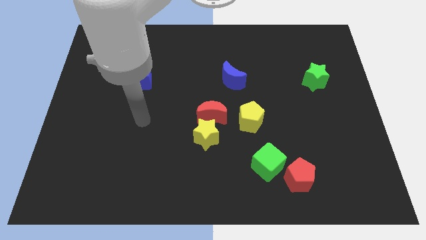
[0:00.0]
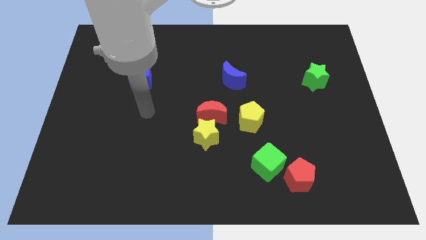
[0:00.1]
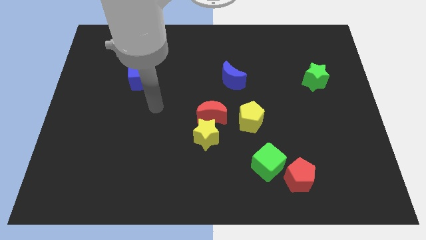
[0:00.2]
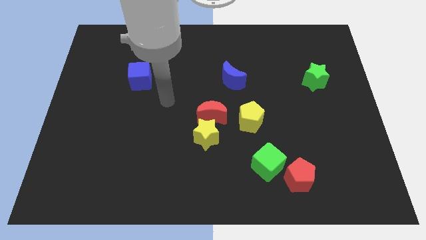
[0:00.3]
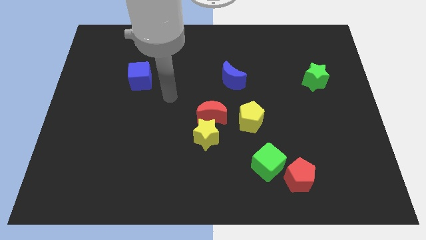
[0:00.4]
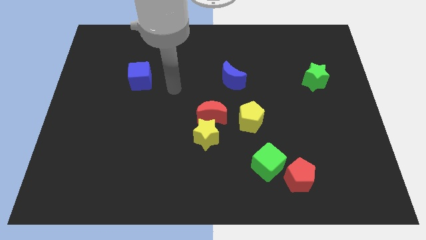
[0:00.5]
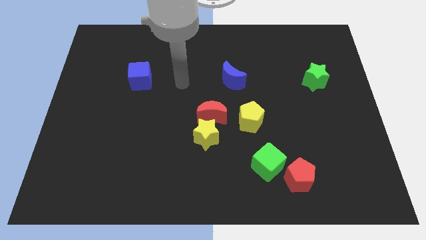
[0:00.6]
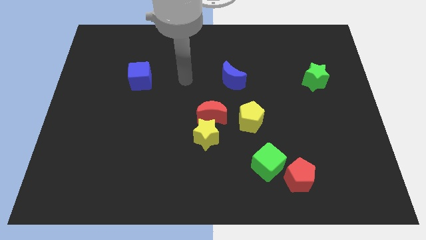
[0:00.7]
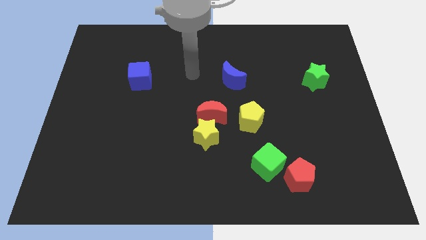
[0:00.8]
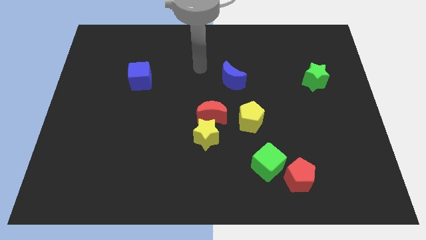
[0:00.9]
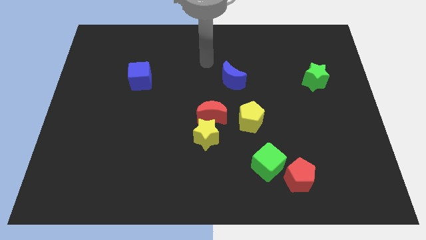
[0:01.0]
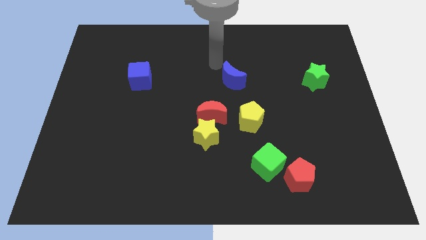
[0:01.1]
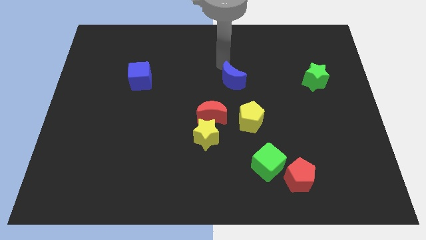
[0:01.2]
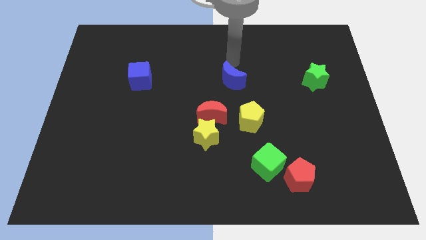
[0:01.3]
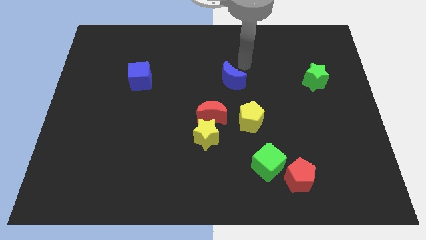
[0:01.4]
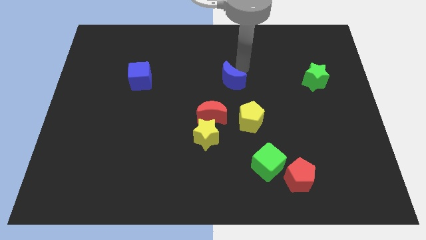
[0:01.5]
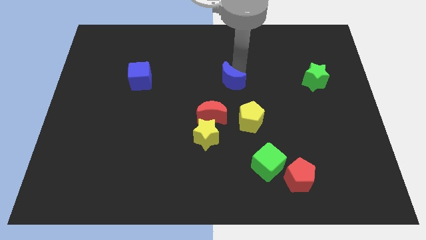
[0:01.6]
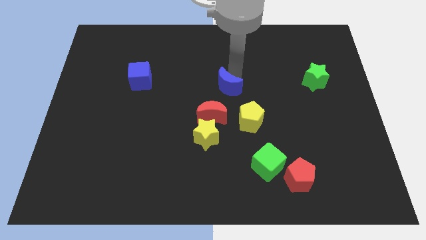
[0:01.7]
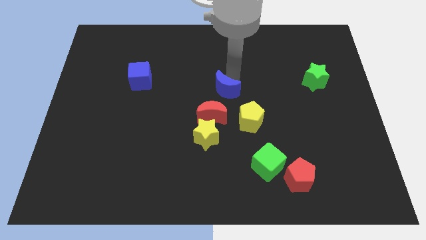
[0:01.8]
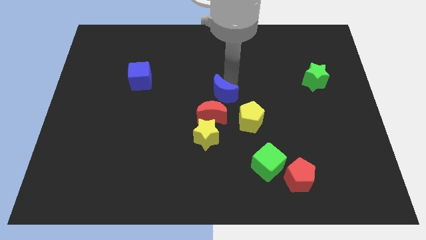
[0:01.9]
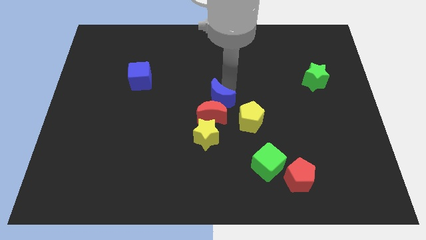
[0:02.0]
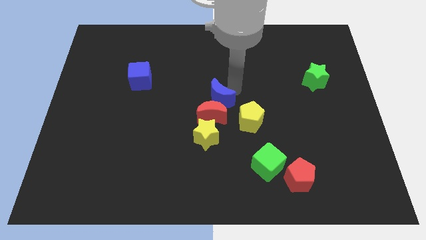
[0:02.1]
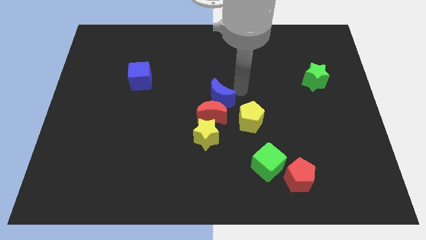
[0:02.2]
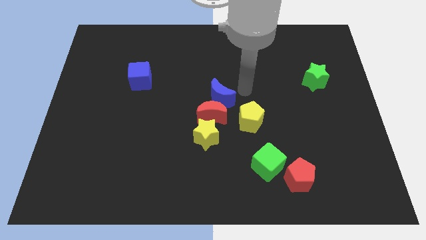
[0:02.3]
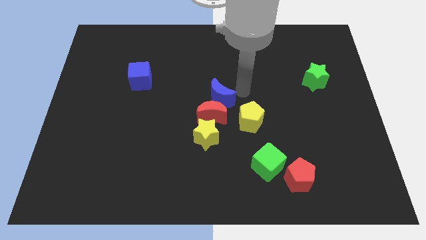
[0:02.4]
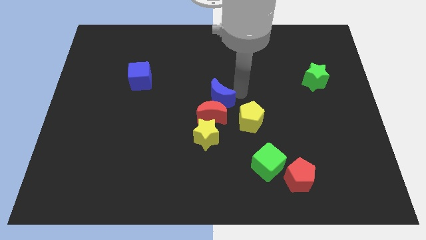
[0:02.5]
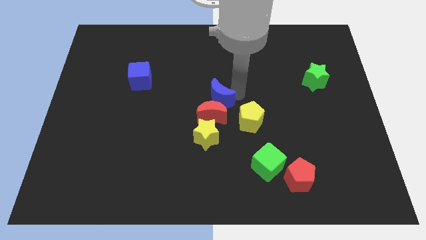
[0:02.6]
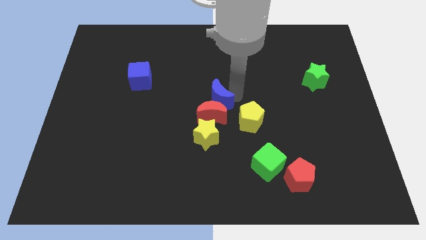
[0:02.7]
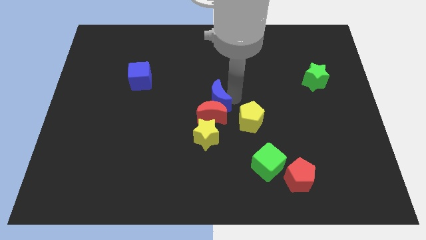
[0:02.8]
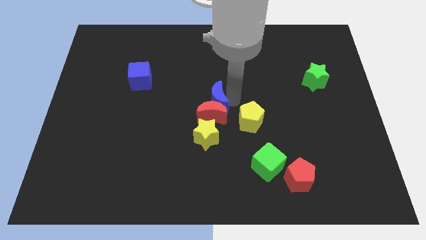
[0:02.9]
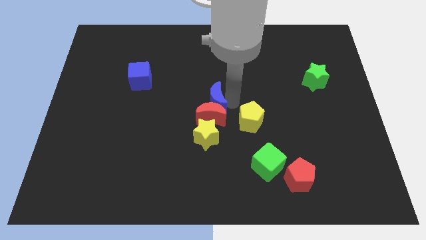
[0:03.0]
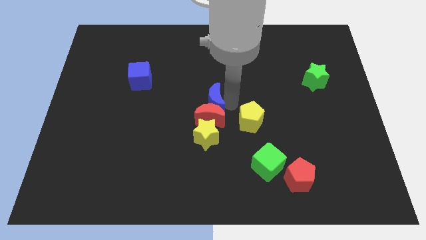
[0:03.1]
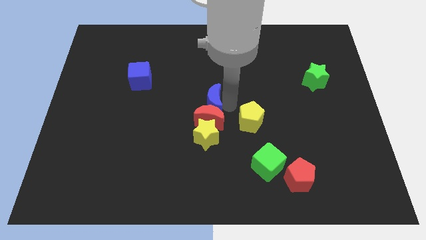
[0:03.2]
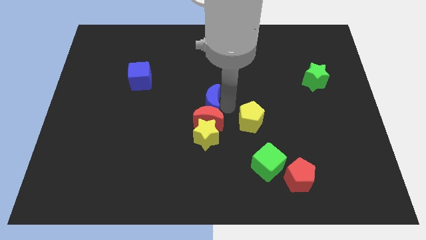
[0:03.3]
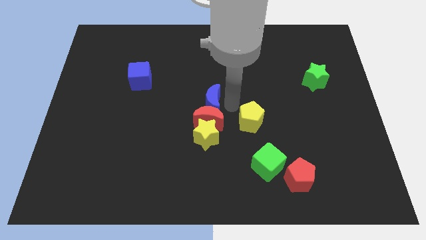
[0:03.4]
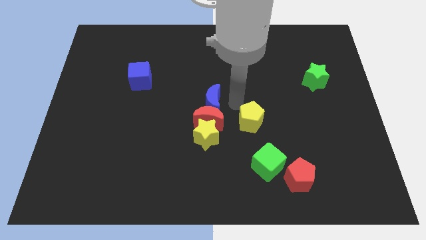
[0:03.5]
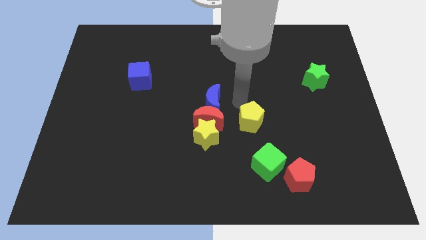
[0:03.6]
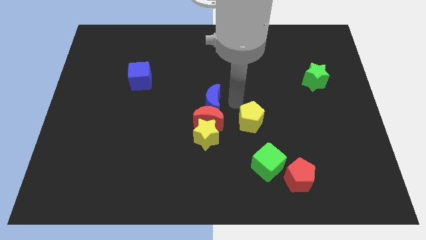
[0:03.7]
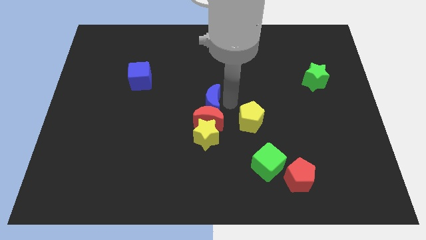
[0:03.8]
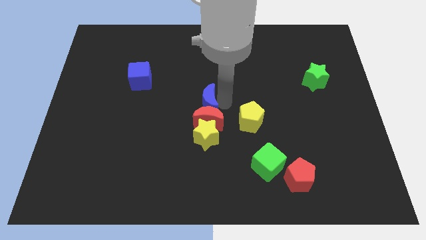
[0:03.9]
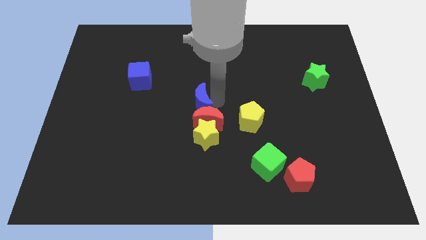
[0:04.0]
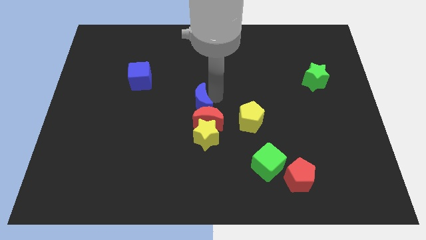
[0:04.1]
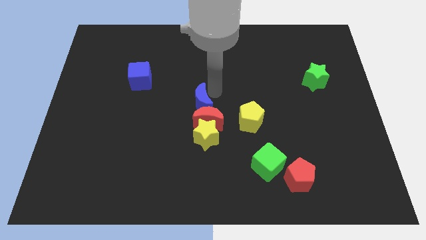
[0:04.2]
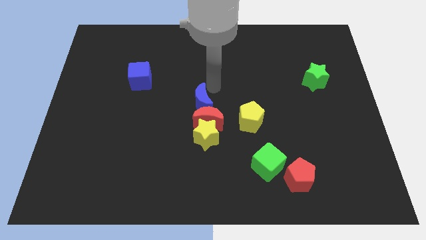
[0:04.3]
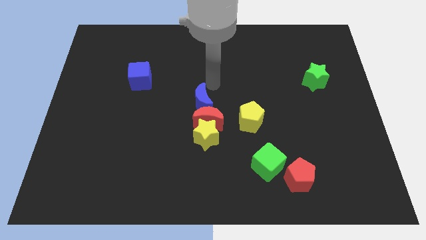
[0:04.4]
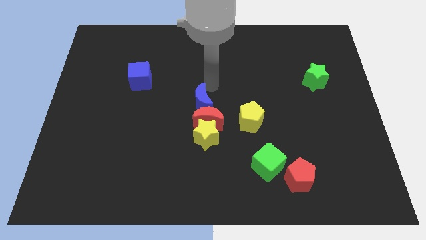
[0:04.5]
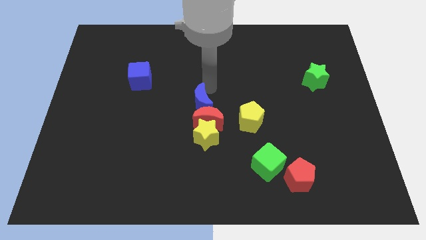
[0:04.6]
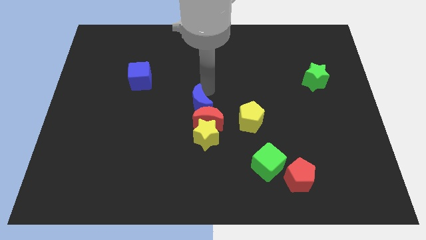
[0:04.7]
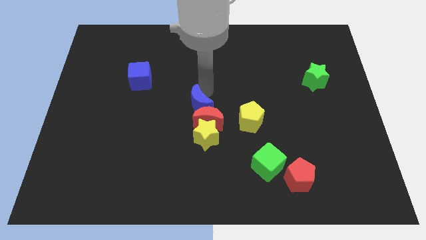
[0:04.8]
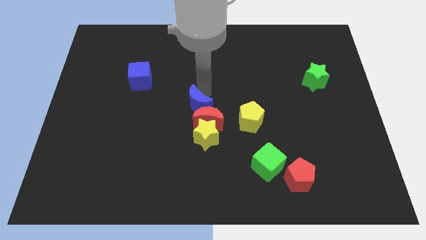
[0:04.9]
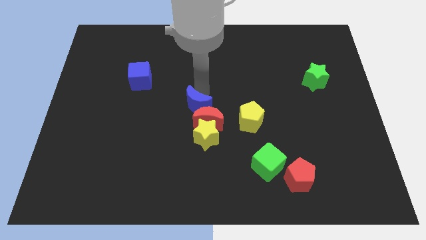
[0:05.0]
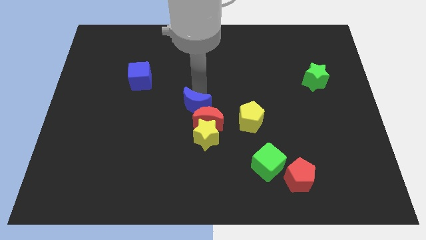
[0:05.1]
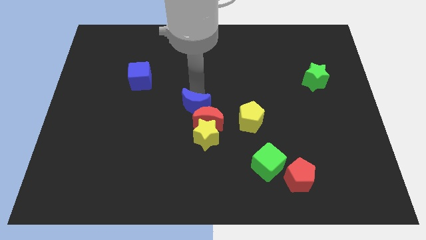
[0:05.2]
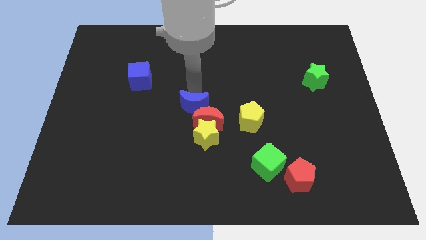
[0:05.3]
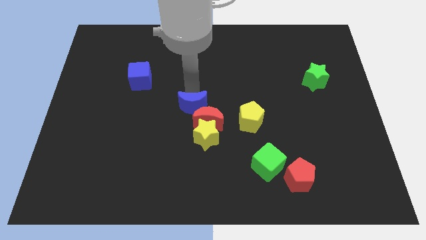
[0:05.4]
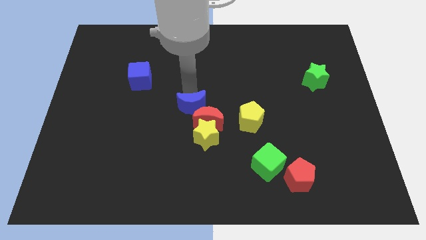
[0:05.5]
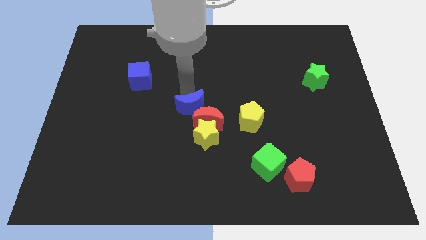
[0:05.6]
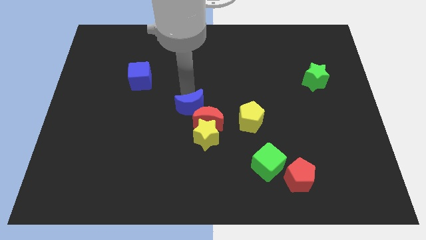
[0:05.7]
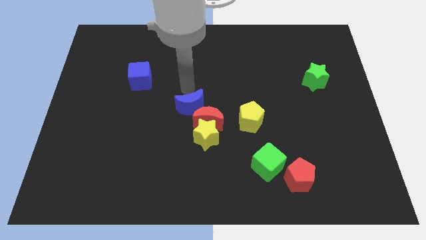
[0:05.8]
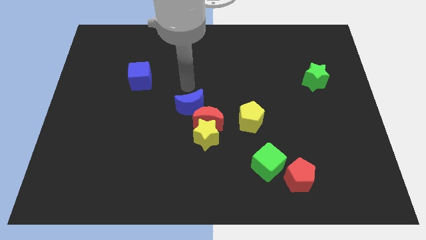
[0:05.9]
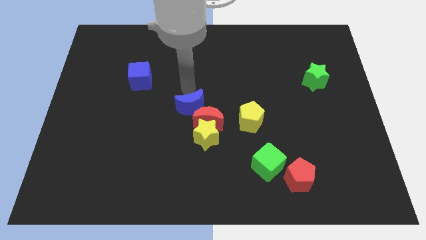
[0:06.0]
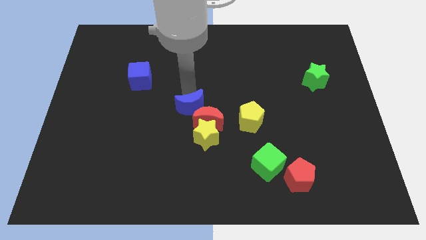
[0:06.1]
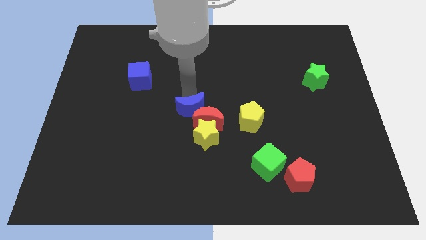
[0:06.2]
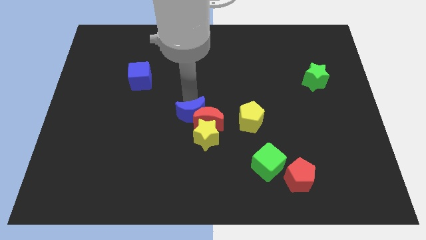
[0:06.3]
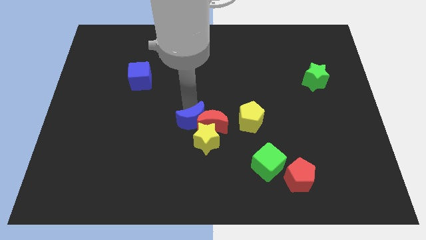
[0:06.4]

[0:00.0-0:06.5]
put the blue moon close to the yellow star
